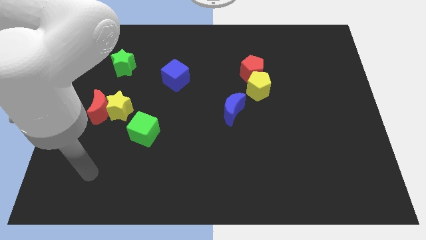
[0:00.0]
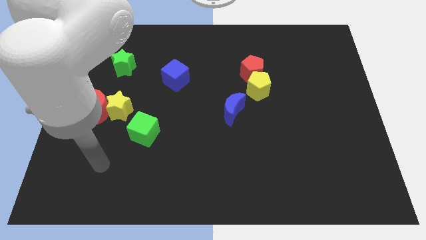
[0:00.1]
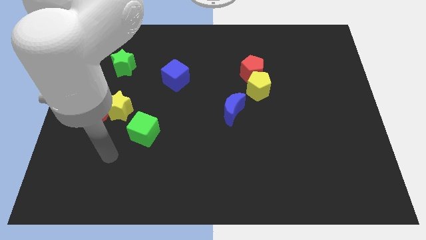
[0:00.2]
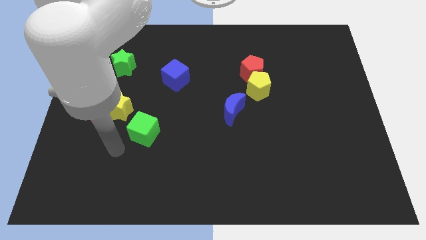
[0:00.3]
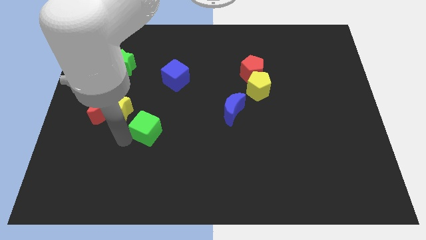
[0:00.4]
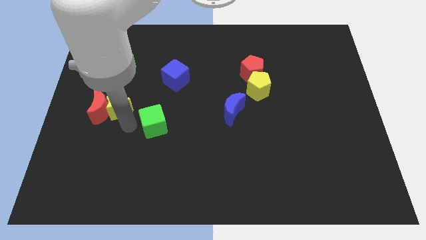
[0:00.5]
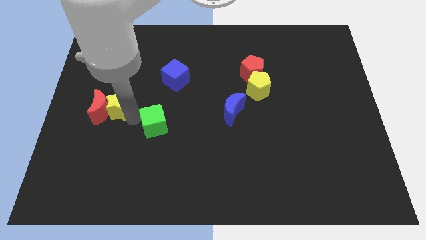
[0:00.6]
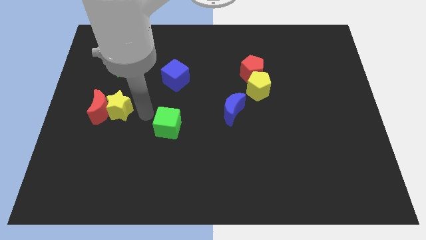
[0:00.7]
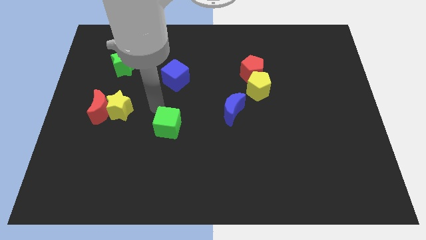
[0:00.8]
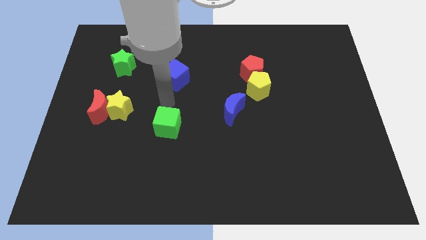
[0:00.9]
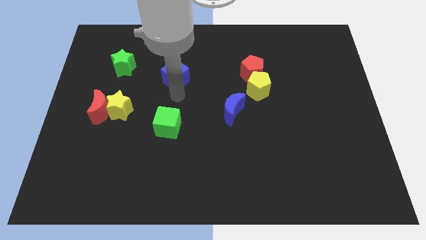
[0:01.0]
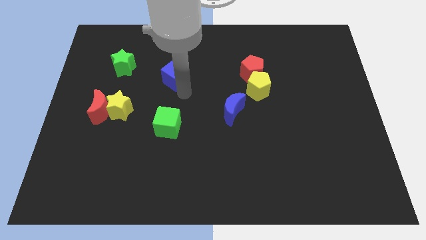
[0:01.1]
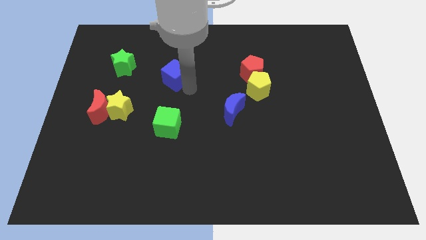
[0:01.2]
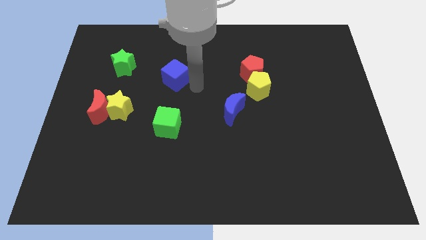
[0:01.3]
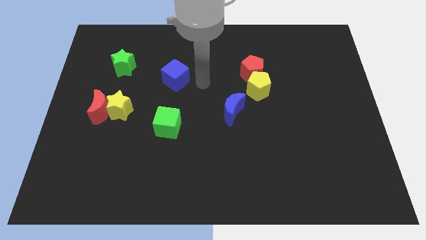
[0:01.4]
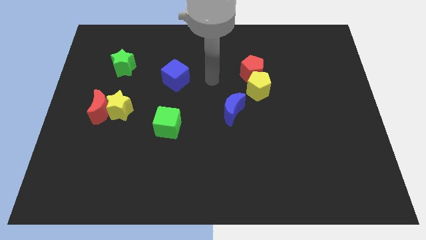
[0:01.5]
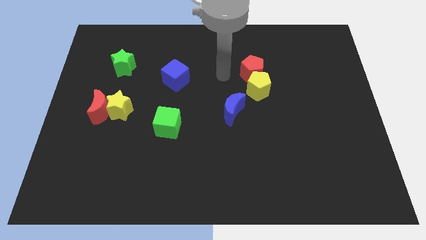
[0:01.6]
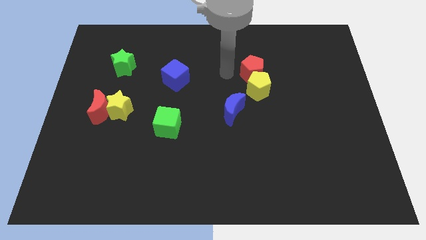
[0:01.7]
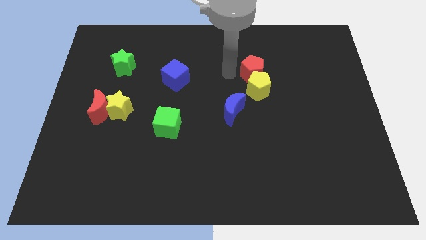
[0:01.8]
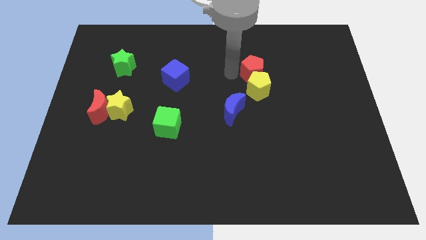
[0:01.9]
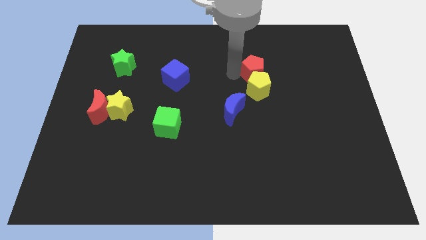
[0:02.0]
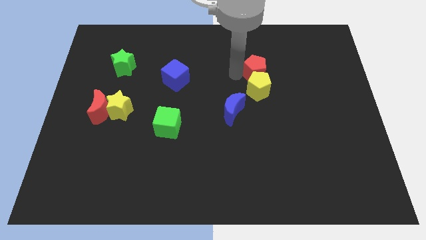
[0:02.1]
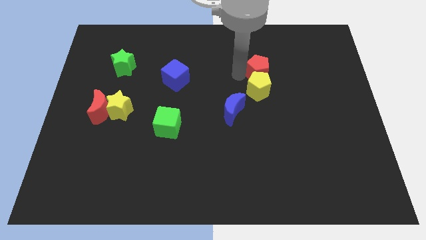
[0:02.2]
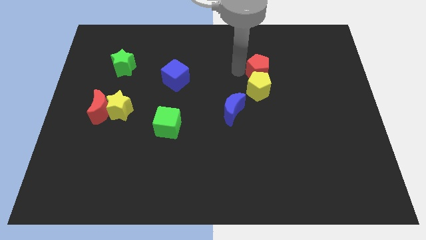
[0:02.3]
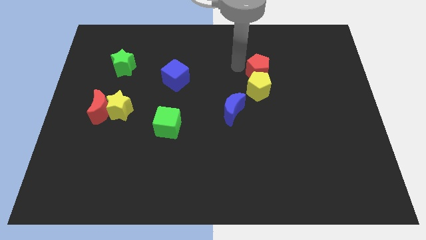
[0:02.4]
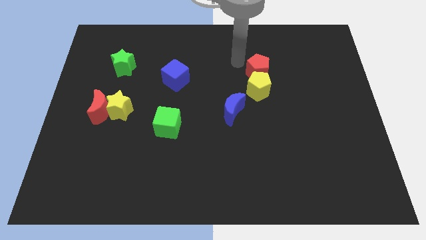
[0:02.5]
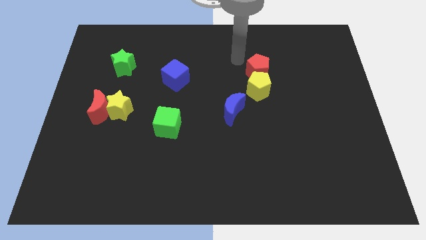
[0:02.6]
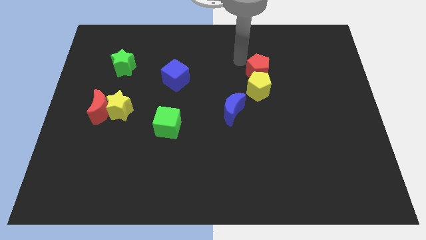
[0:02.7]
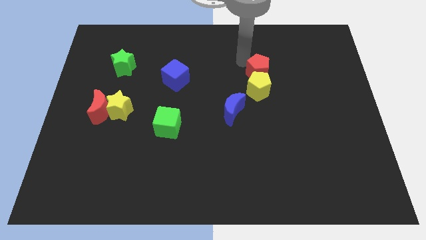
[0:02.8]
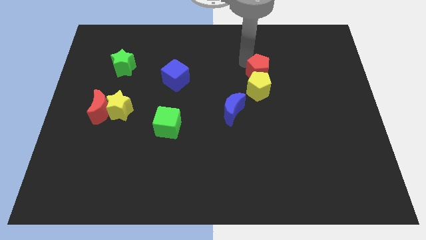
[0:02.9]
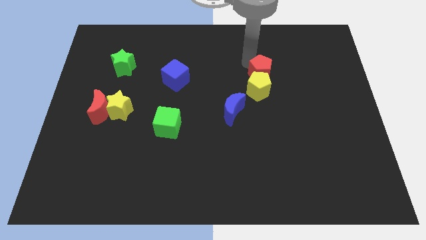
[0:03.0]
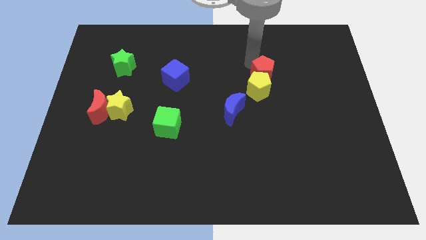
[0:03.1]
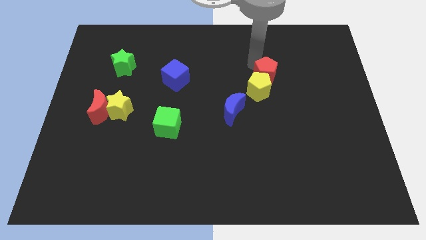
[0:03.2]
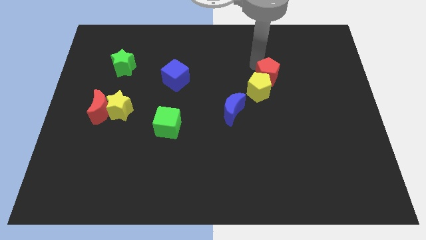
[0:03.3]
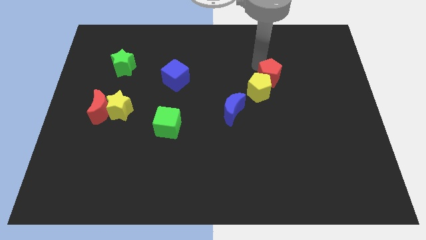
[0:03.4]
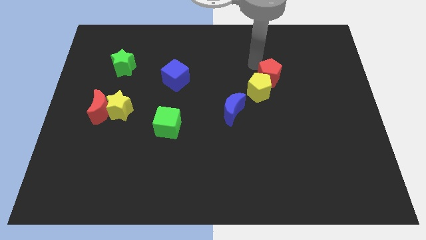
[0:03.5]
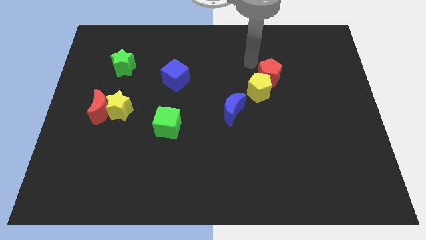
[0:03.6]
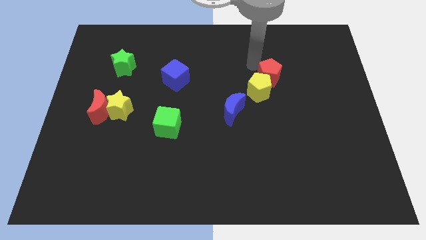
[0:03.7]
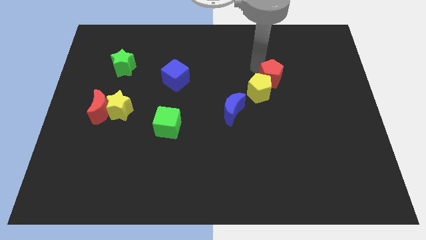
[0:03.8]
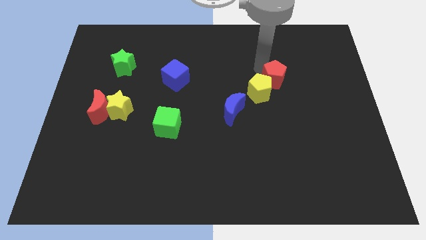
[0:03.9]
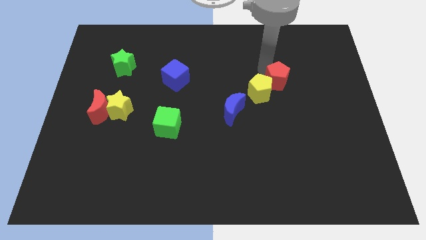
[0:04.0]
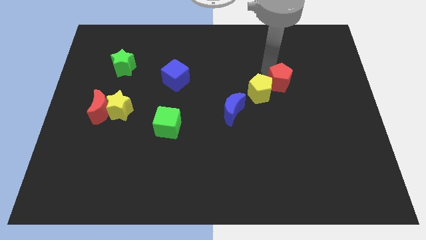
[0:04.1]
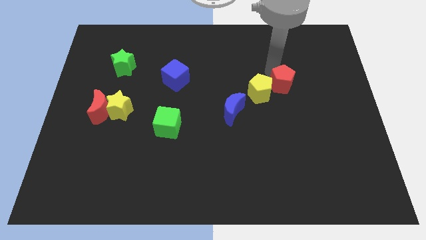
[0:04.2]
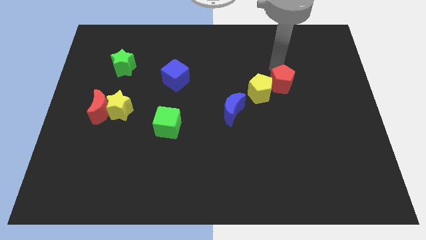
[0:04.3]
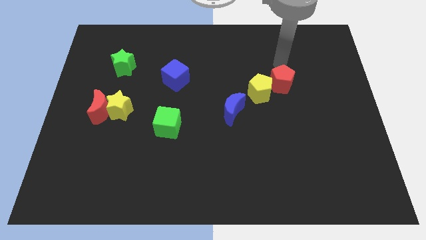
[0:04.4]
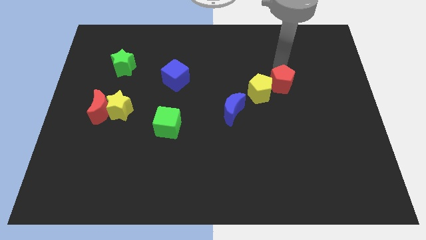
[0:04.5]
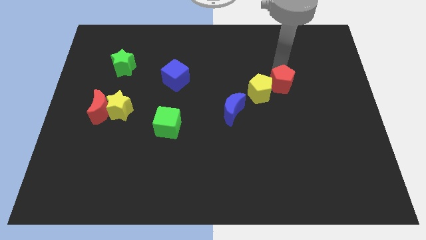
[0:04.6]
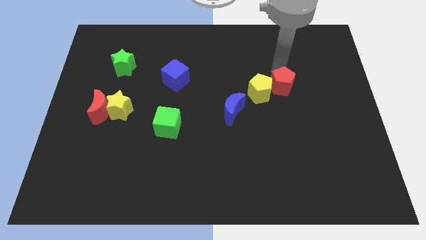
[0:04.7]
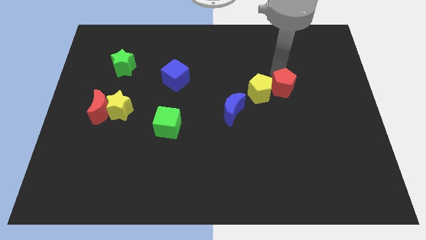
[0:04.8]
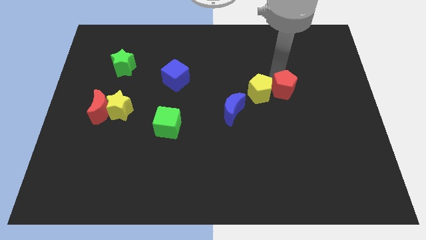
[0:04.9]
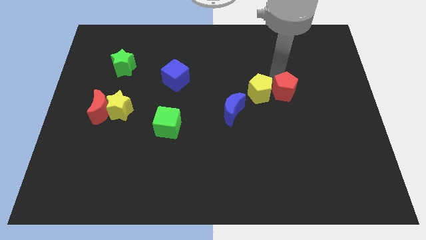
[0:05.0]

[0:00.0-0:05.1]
put the red pentagon diagonally down and to the right of the yellow pentagon
